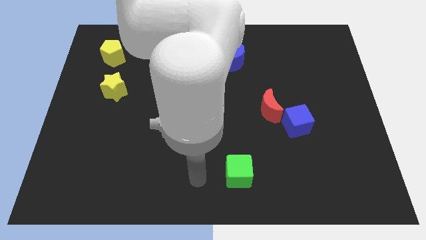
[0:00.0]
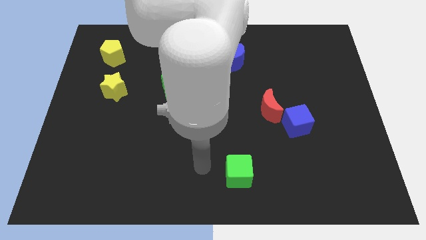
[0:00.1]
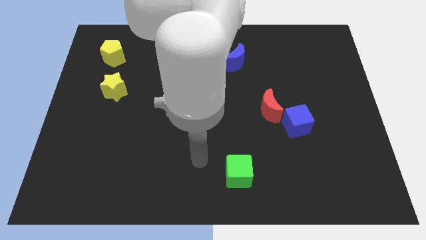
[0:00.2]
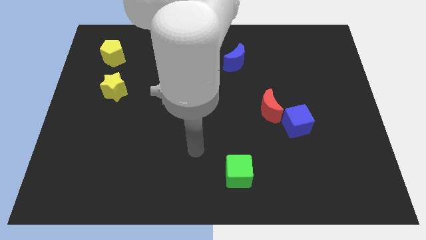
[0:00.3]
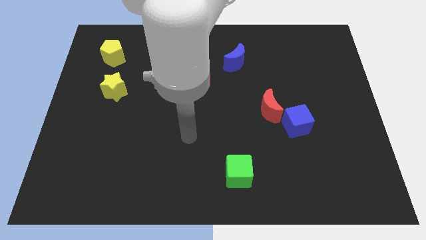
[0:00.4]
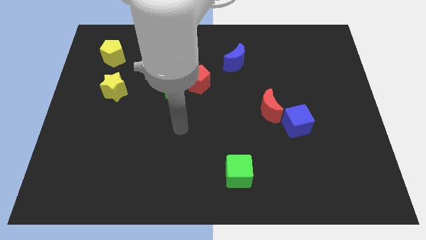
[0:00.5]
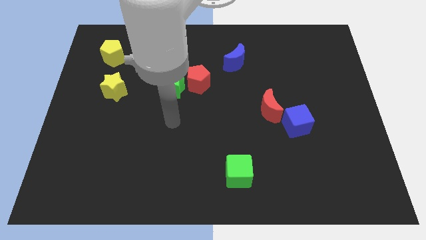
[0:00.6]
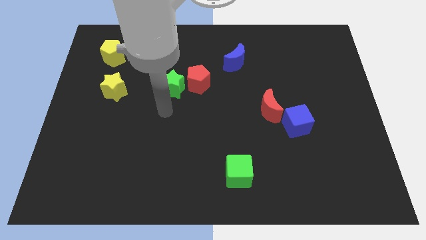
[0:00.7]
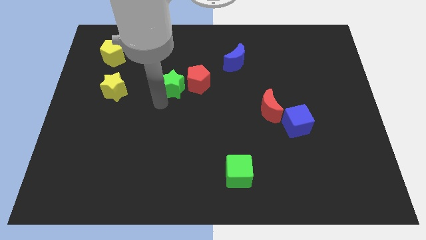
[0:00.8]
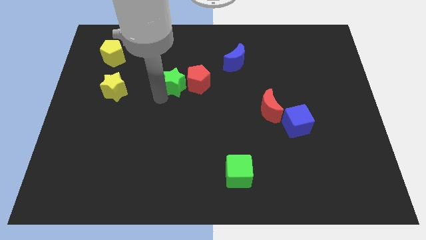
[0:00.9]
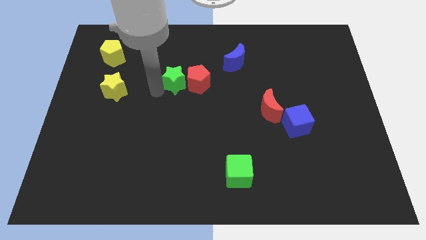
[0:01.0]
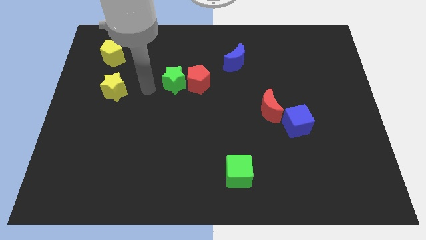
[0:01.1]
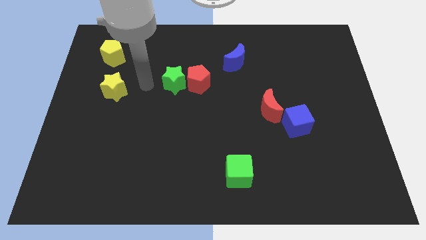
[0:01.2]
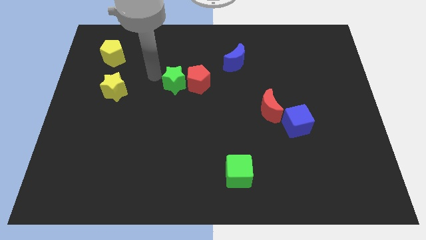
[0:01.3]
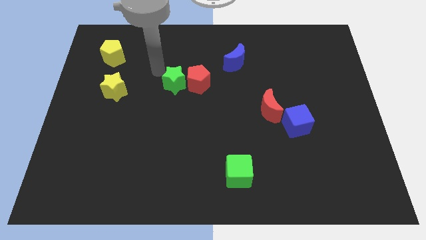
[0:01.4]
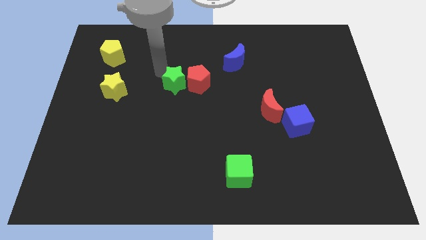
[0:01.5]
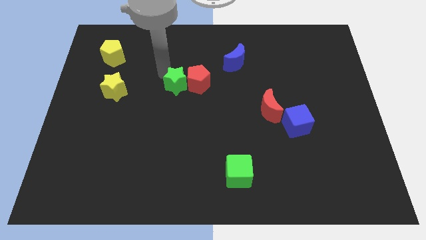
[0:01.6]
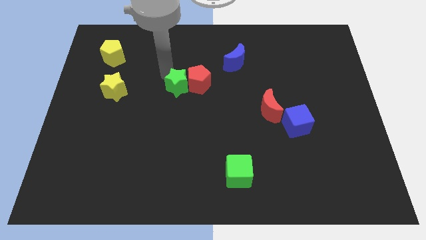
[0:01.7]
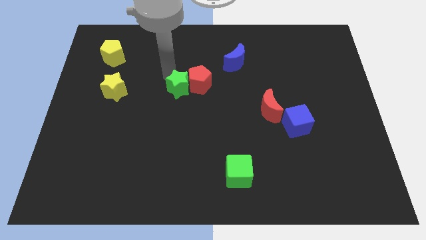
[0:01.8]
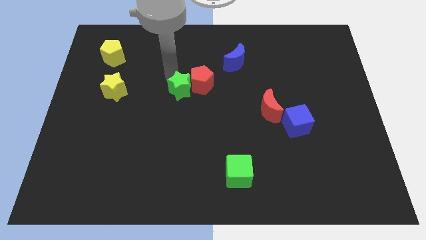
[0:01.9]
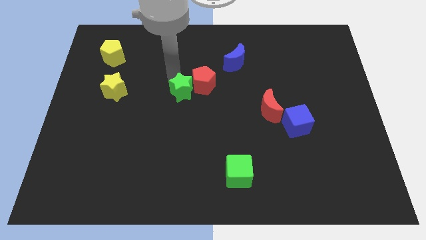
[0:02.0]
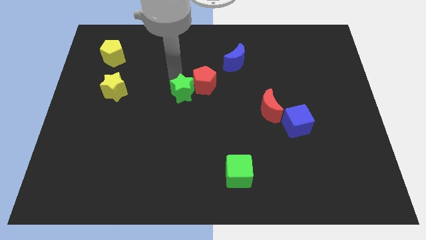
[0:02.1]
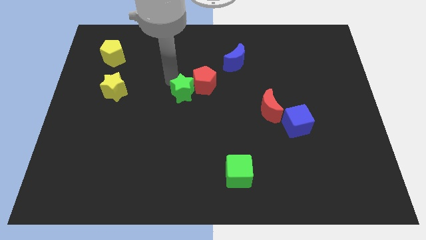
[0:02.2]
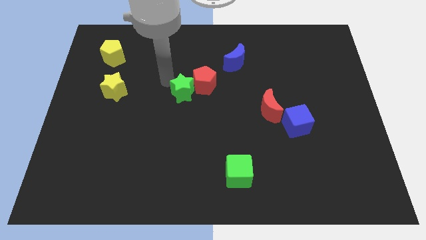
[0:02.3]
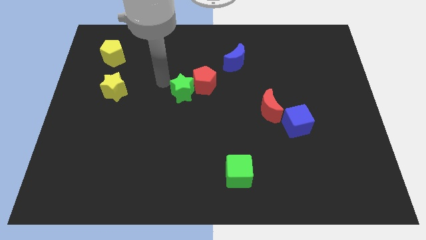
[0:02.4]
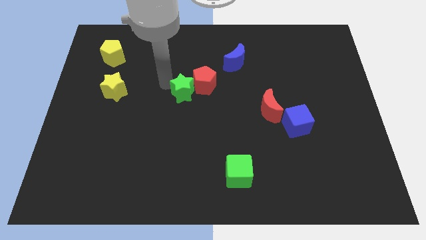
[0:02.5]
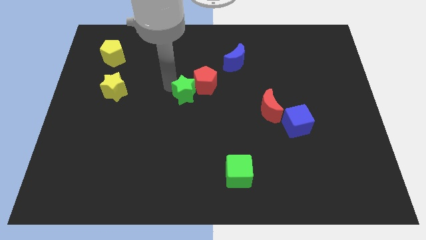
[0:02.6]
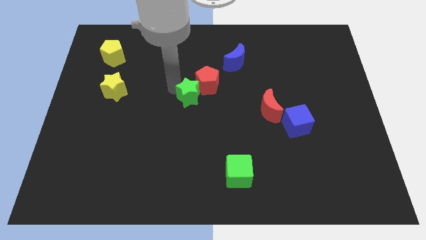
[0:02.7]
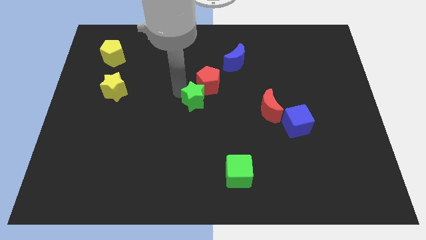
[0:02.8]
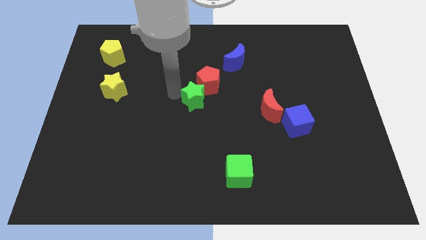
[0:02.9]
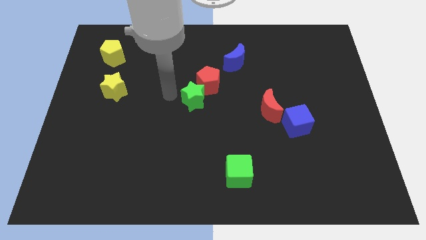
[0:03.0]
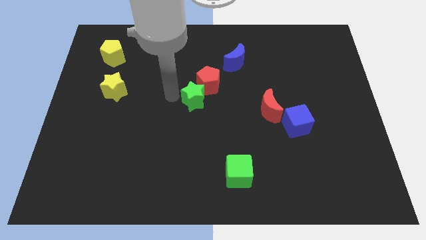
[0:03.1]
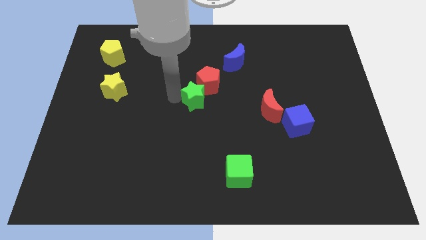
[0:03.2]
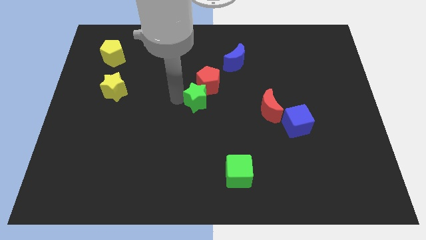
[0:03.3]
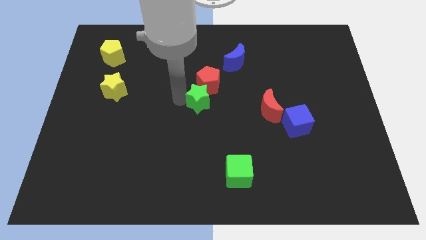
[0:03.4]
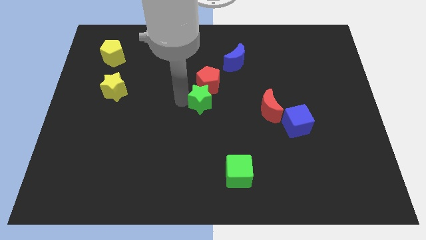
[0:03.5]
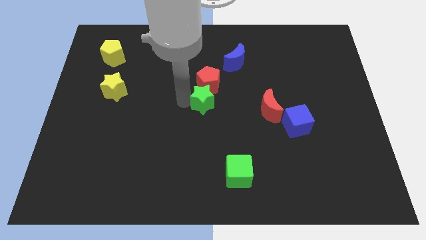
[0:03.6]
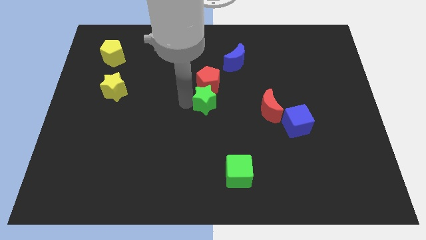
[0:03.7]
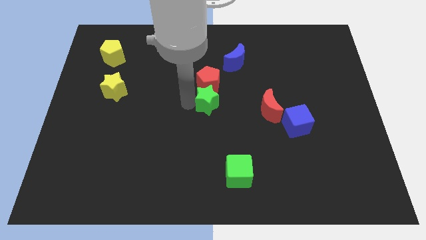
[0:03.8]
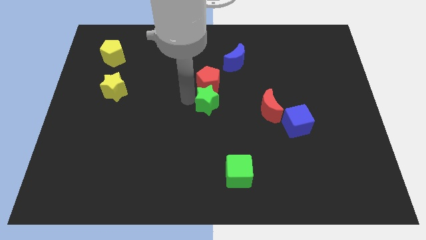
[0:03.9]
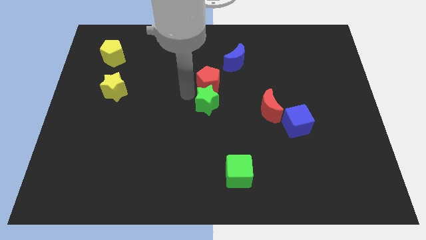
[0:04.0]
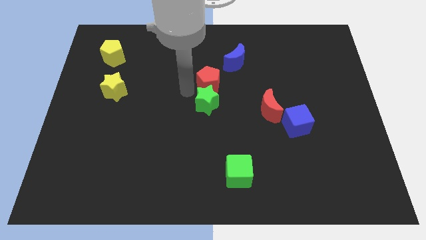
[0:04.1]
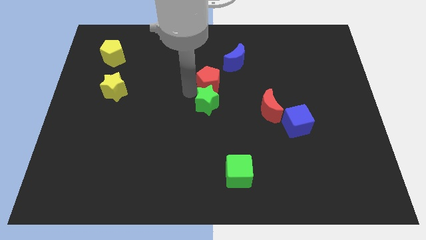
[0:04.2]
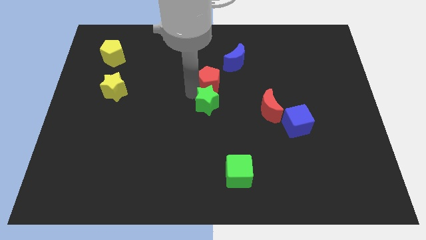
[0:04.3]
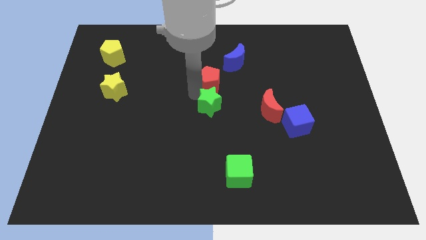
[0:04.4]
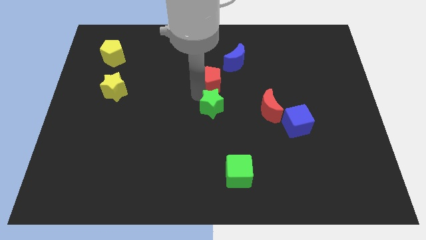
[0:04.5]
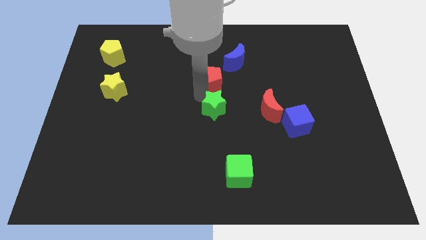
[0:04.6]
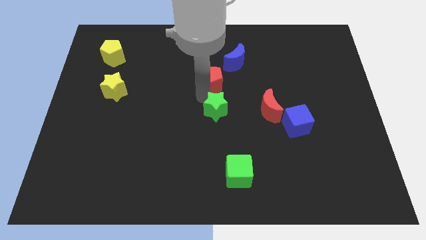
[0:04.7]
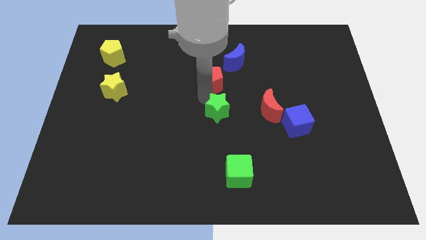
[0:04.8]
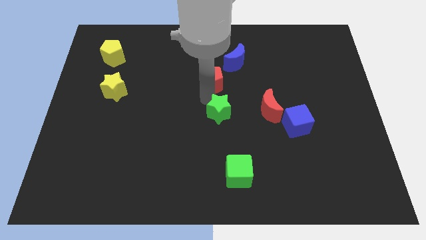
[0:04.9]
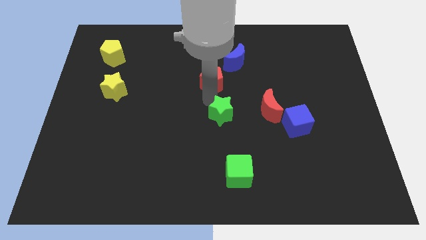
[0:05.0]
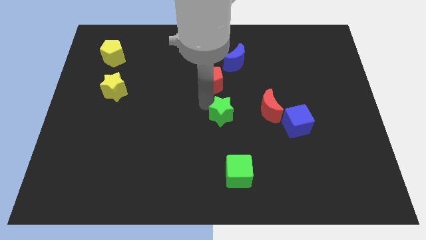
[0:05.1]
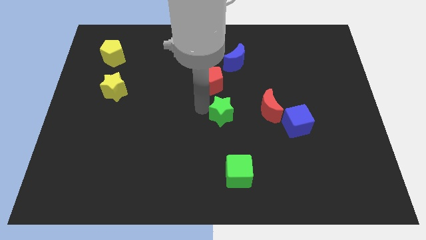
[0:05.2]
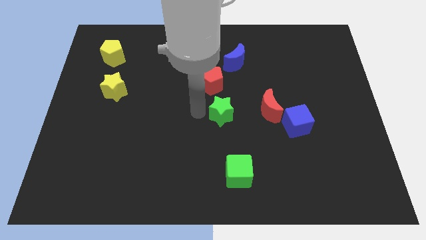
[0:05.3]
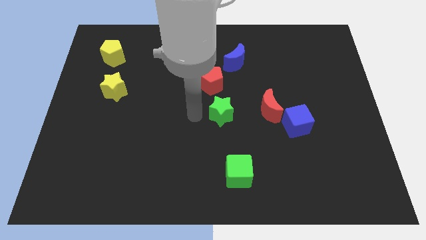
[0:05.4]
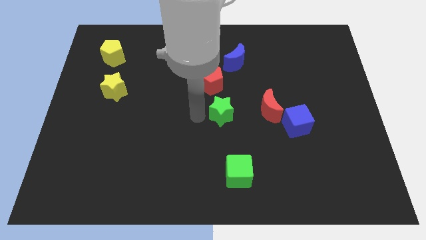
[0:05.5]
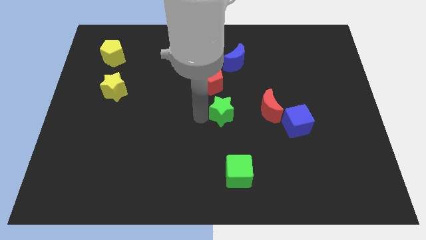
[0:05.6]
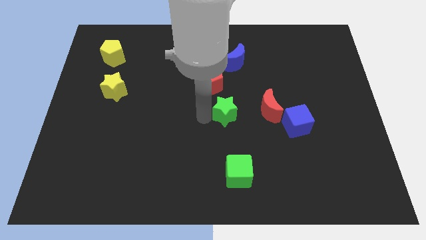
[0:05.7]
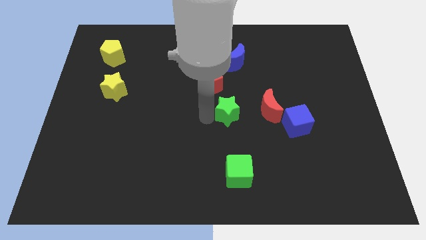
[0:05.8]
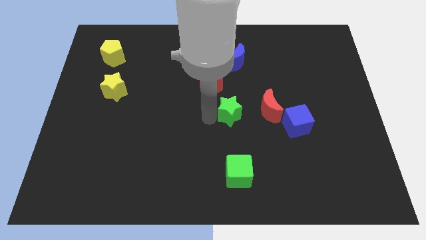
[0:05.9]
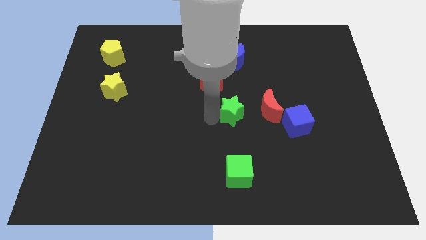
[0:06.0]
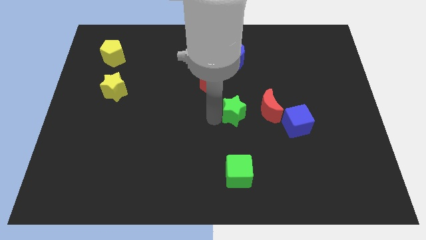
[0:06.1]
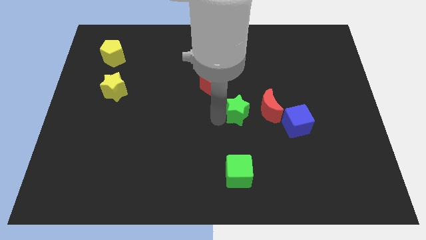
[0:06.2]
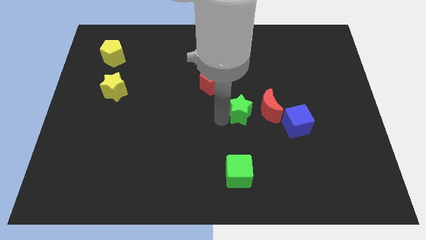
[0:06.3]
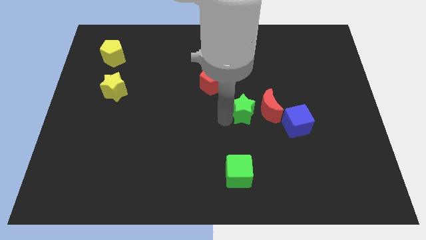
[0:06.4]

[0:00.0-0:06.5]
slide the green star next to the red moon

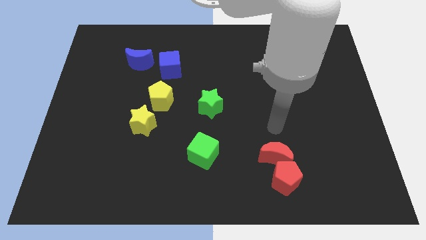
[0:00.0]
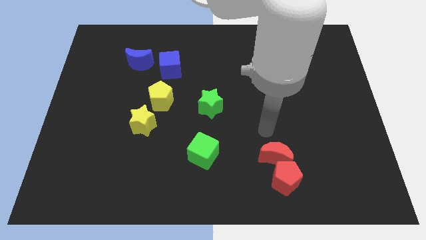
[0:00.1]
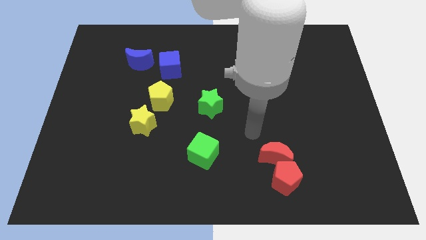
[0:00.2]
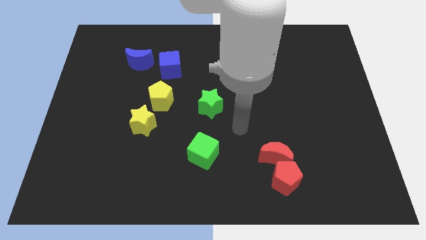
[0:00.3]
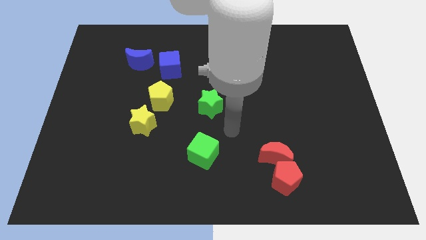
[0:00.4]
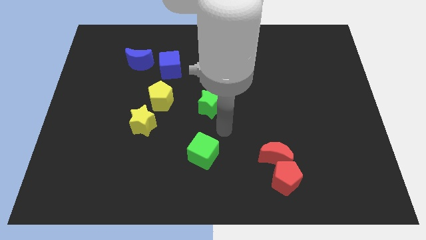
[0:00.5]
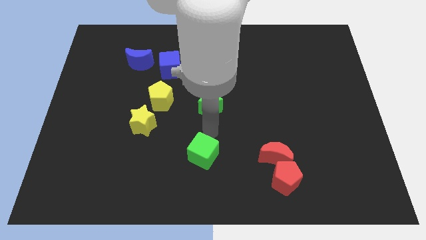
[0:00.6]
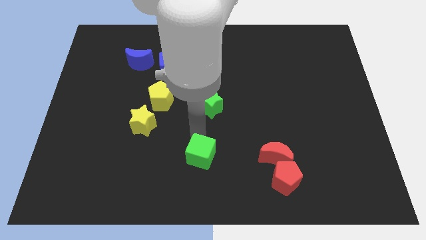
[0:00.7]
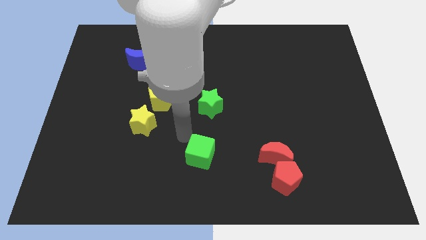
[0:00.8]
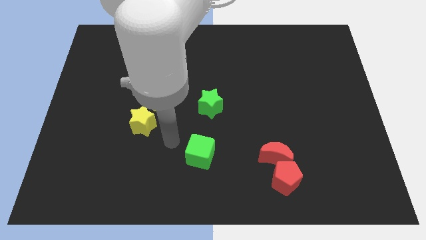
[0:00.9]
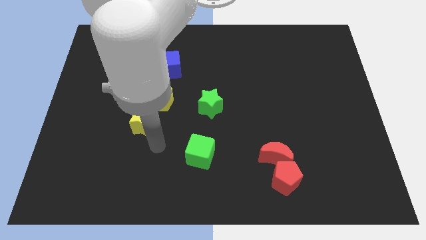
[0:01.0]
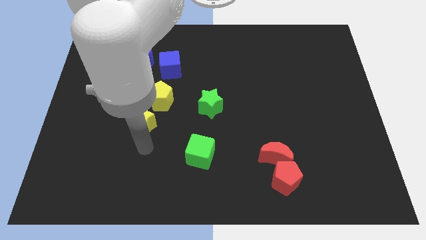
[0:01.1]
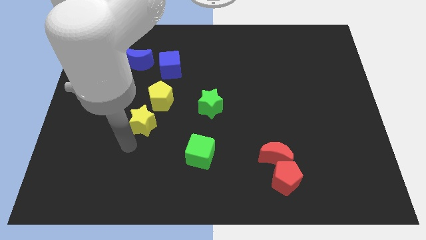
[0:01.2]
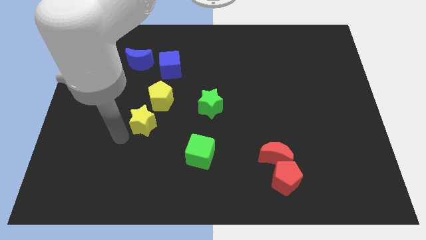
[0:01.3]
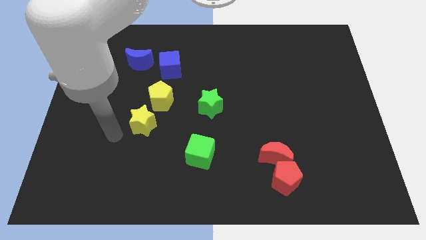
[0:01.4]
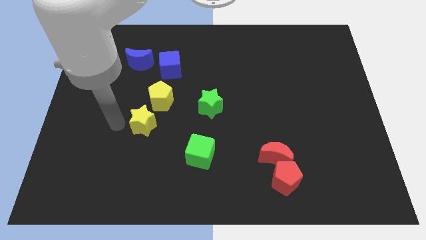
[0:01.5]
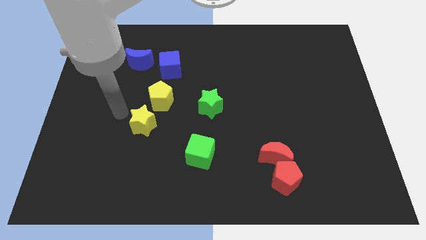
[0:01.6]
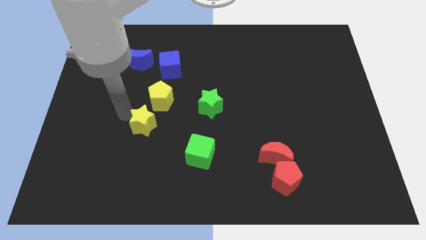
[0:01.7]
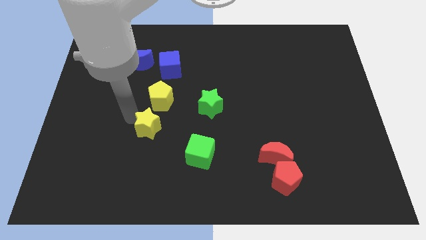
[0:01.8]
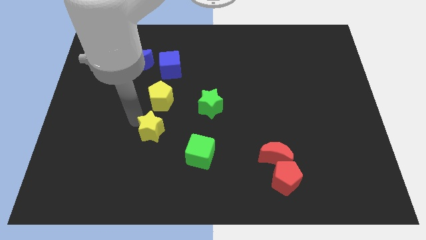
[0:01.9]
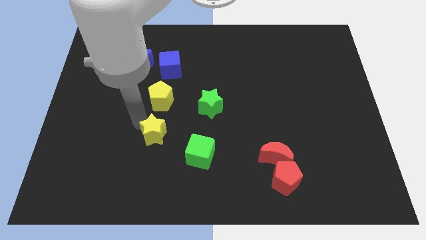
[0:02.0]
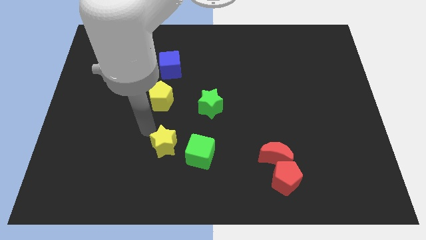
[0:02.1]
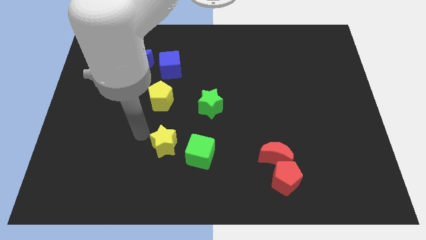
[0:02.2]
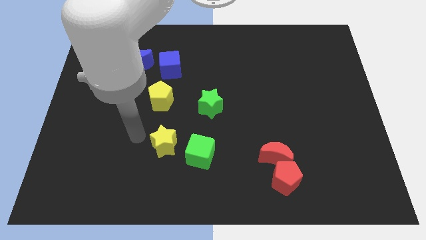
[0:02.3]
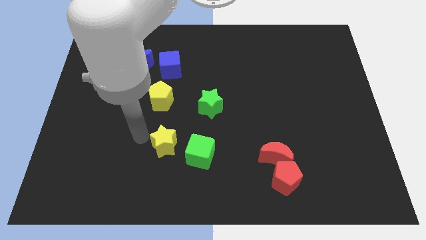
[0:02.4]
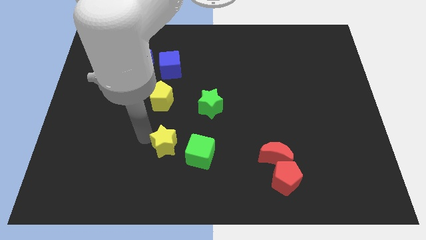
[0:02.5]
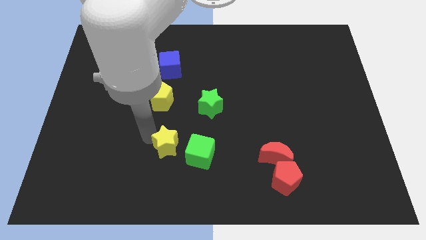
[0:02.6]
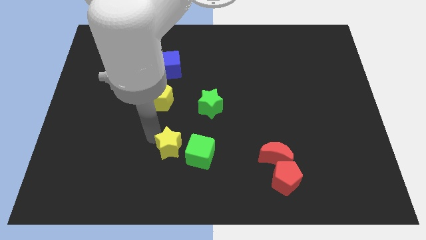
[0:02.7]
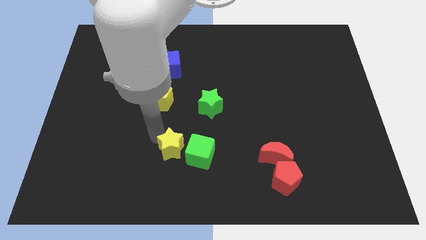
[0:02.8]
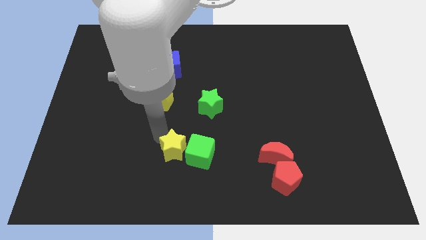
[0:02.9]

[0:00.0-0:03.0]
move the yellow star close to the green cube
